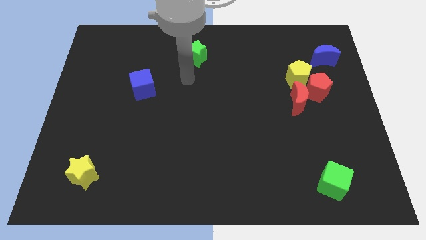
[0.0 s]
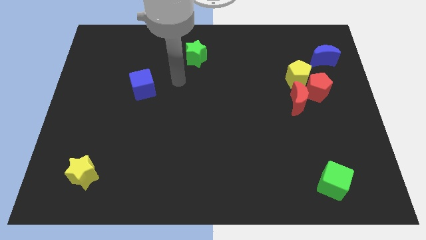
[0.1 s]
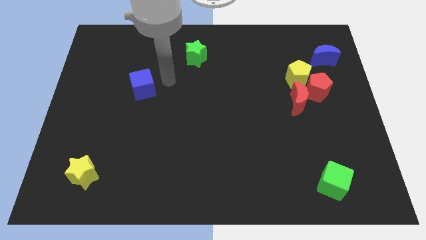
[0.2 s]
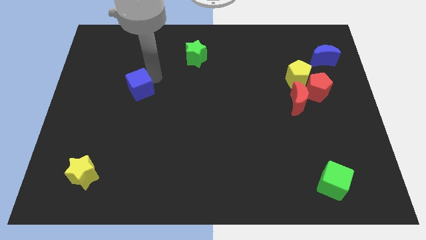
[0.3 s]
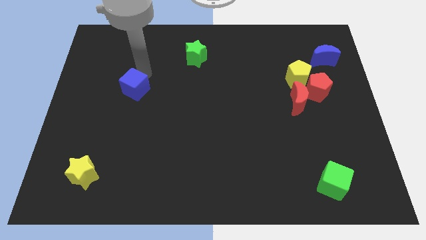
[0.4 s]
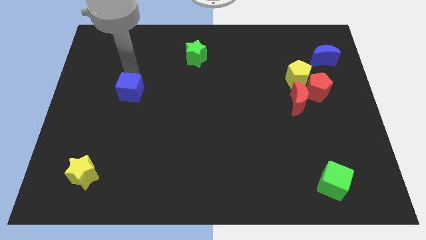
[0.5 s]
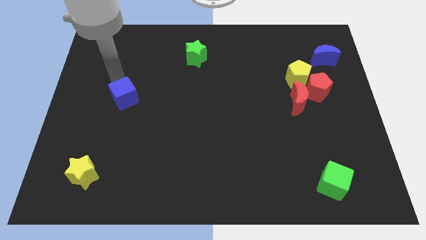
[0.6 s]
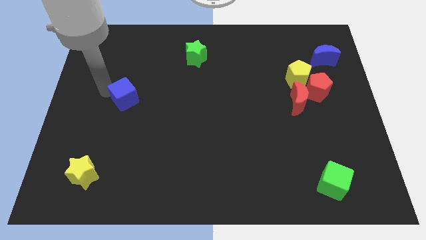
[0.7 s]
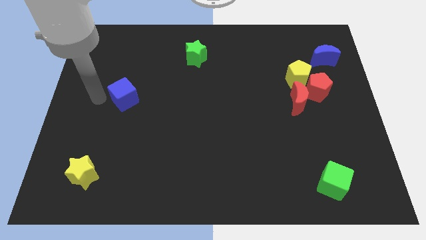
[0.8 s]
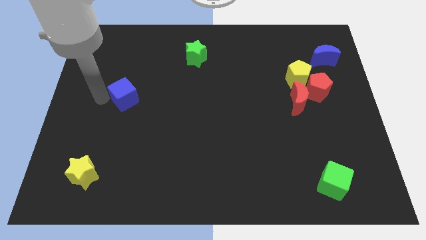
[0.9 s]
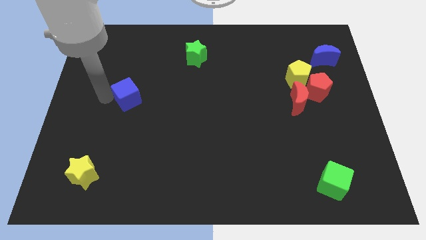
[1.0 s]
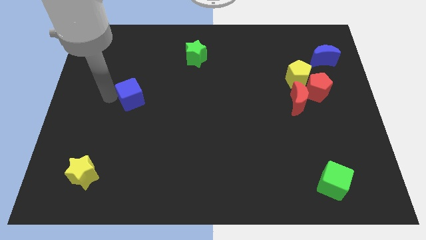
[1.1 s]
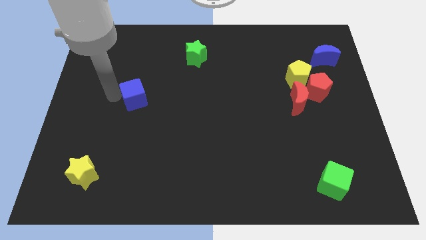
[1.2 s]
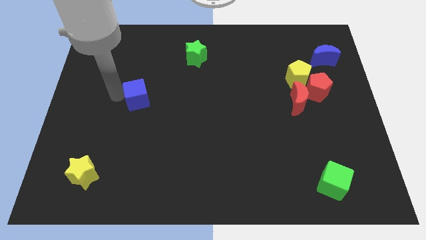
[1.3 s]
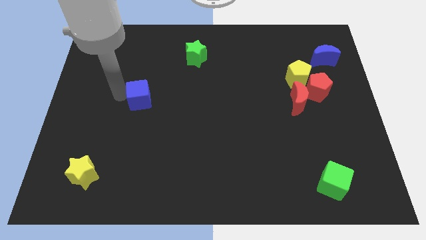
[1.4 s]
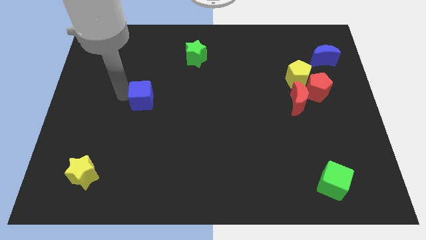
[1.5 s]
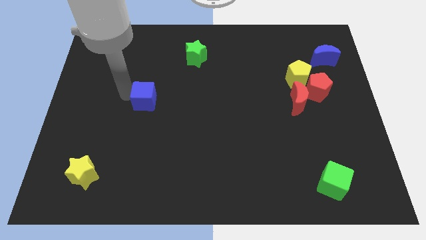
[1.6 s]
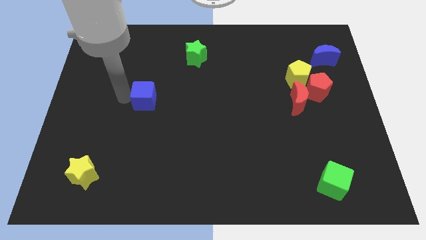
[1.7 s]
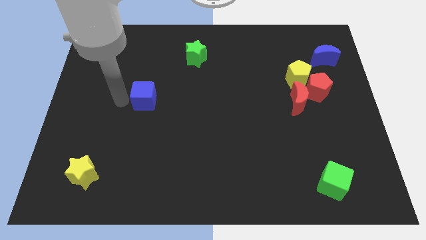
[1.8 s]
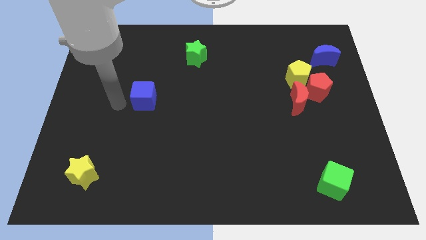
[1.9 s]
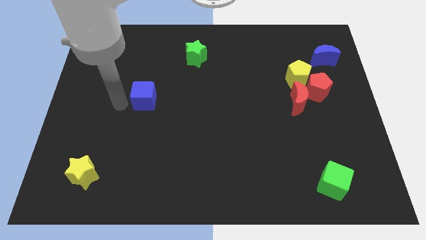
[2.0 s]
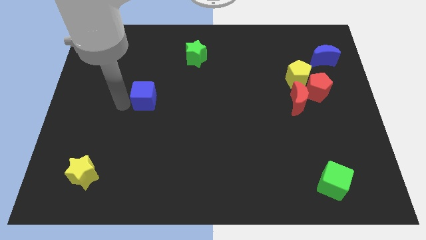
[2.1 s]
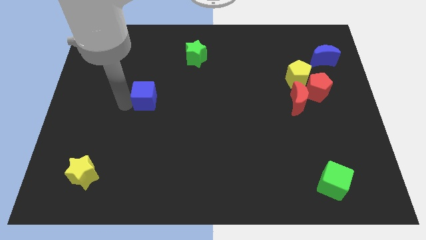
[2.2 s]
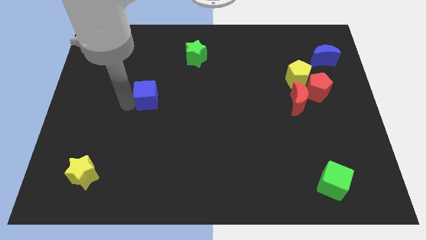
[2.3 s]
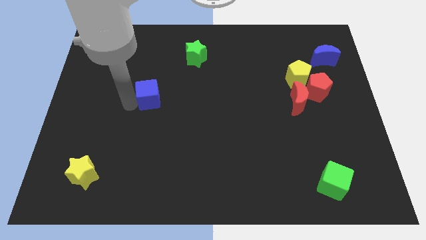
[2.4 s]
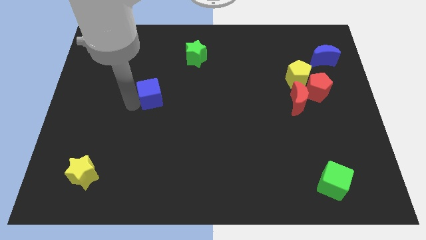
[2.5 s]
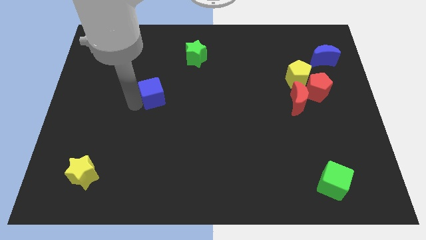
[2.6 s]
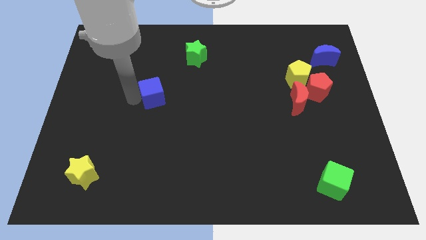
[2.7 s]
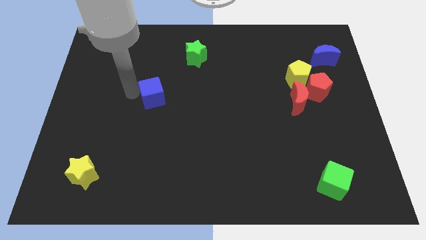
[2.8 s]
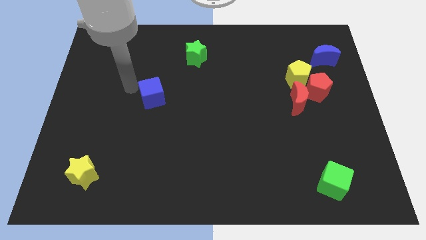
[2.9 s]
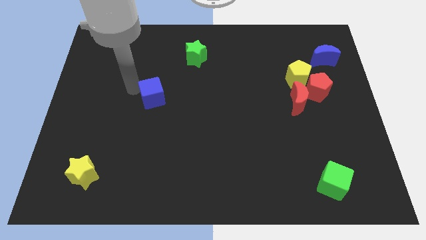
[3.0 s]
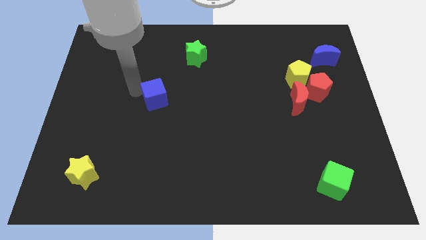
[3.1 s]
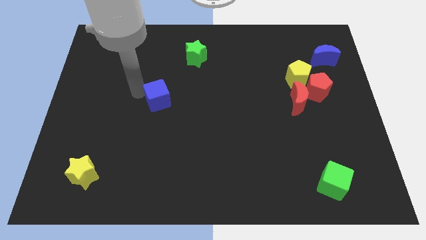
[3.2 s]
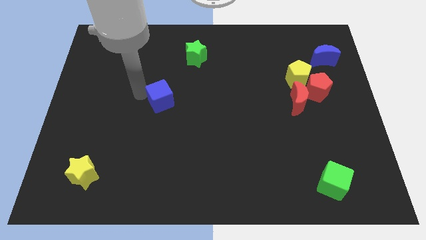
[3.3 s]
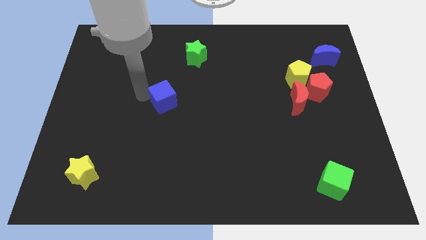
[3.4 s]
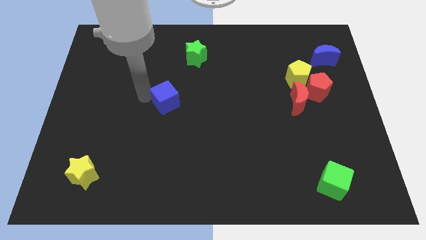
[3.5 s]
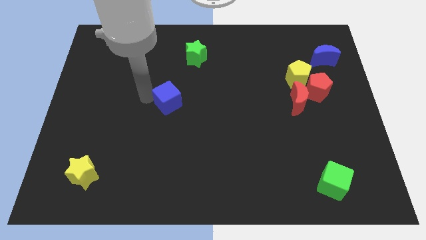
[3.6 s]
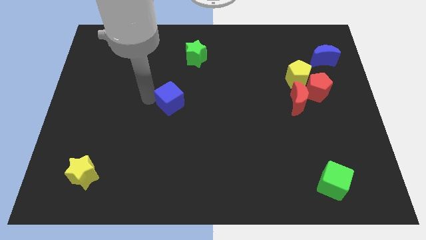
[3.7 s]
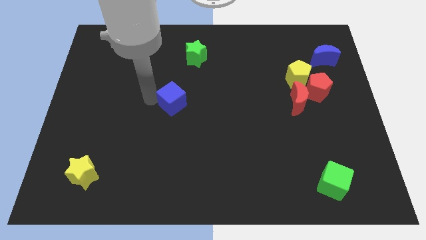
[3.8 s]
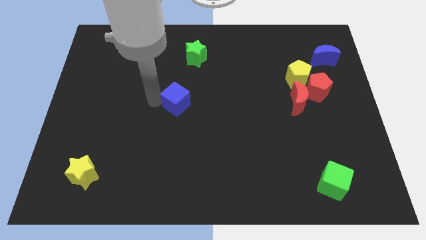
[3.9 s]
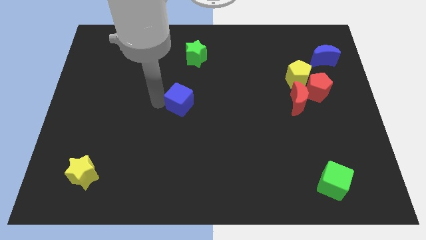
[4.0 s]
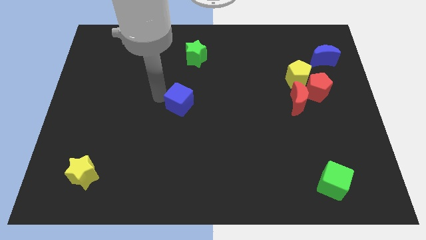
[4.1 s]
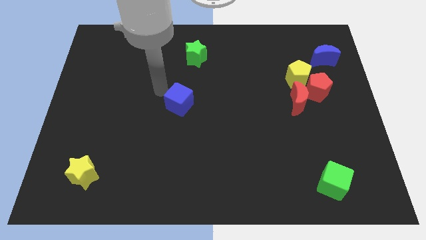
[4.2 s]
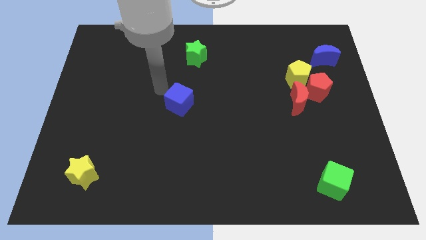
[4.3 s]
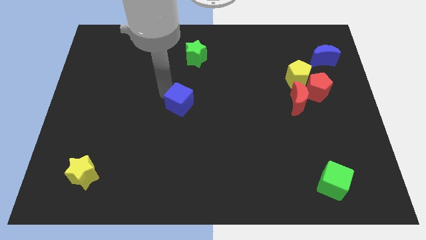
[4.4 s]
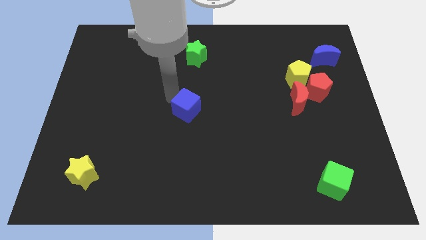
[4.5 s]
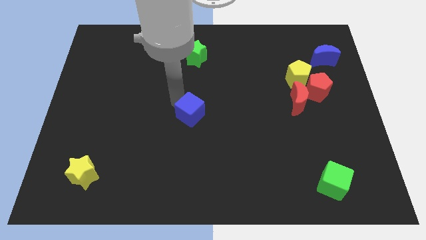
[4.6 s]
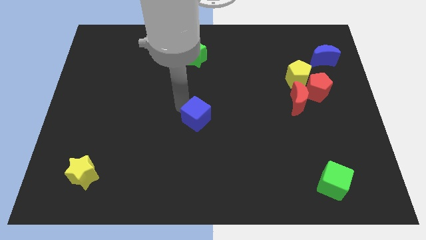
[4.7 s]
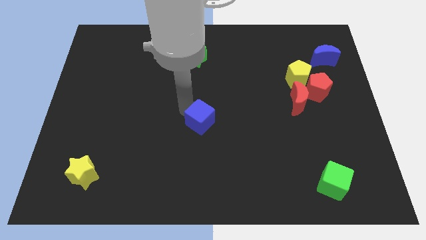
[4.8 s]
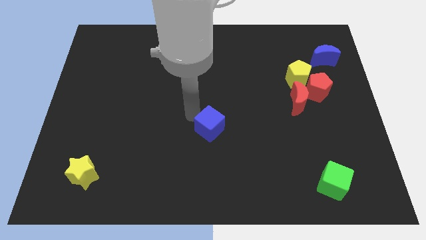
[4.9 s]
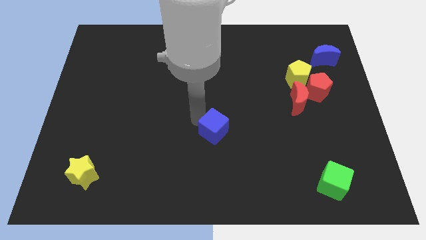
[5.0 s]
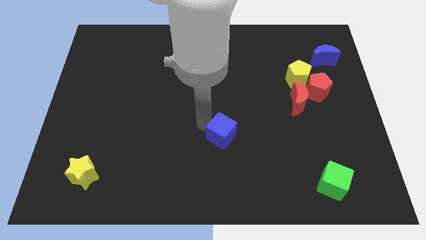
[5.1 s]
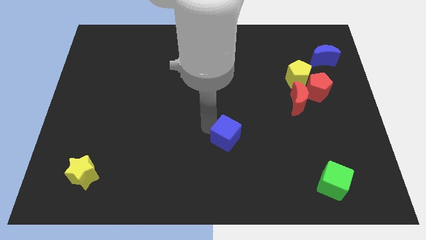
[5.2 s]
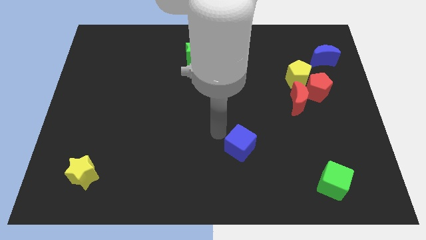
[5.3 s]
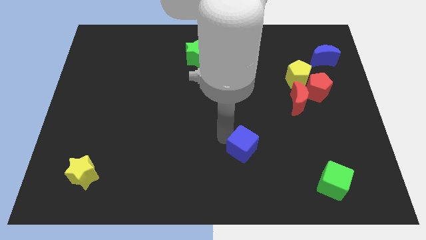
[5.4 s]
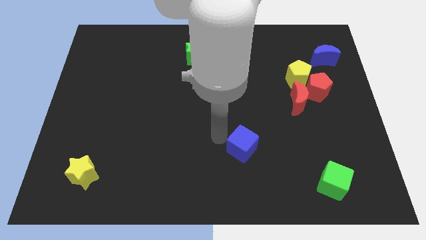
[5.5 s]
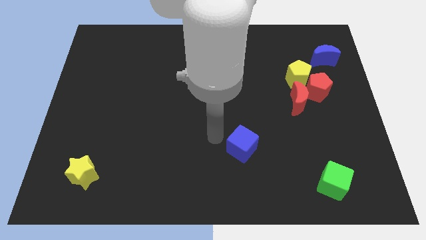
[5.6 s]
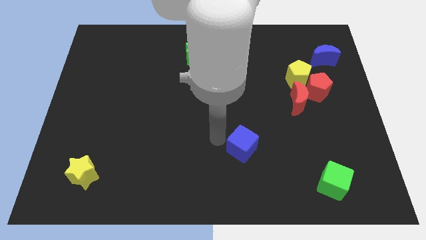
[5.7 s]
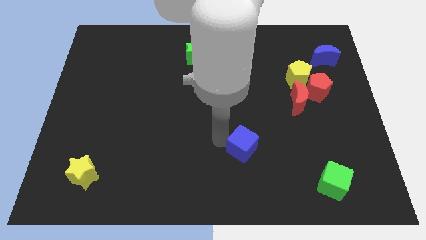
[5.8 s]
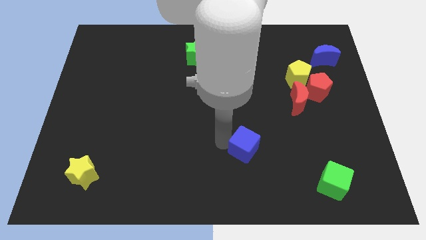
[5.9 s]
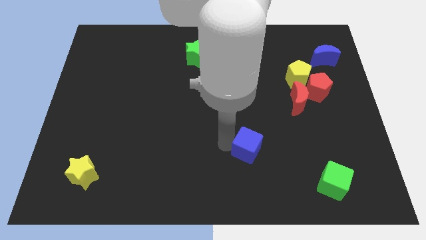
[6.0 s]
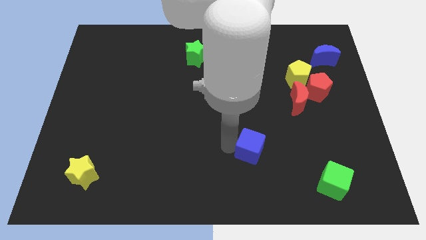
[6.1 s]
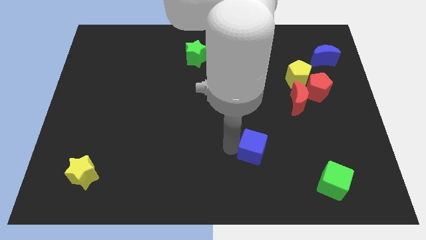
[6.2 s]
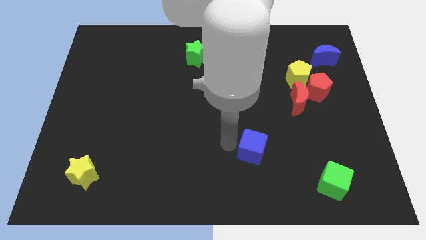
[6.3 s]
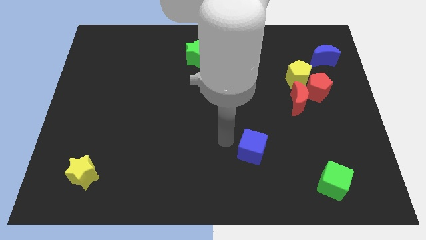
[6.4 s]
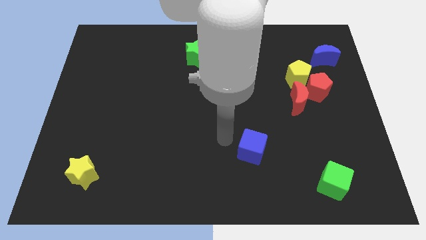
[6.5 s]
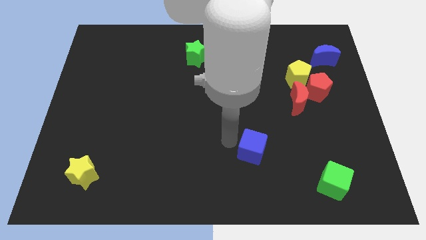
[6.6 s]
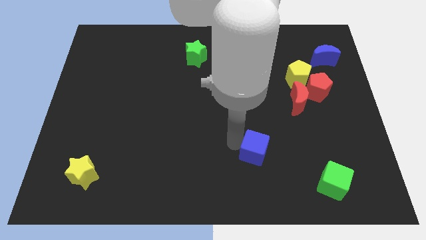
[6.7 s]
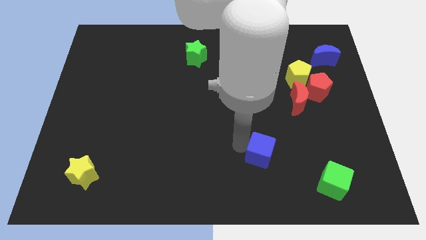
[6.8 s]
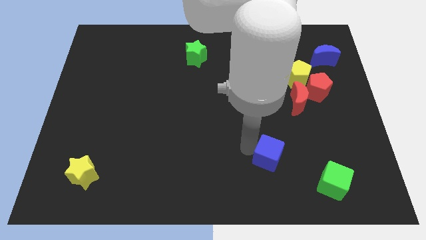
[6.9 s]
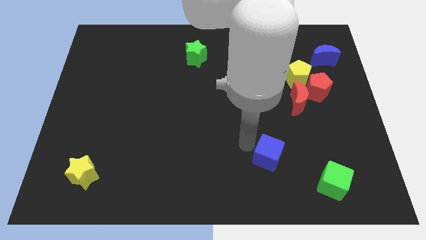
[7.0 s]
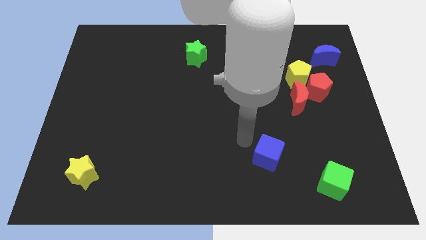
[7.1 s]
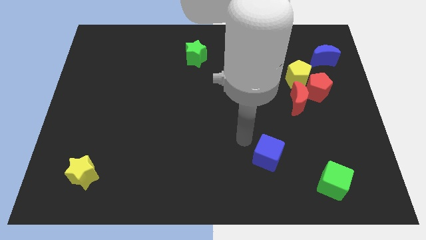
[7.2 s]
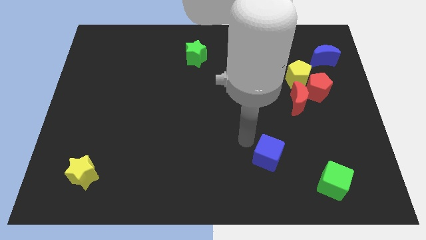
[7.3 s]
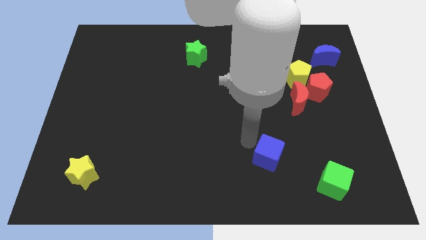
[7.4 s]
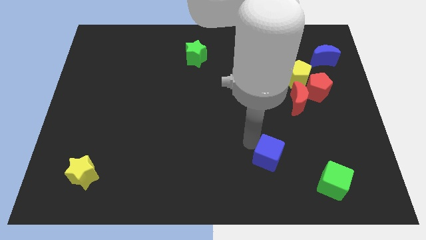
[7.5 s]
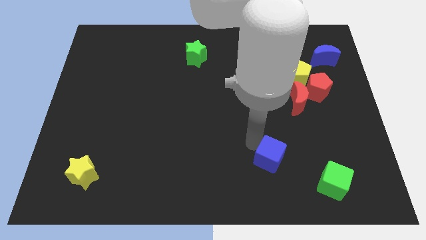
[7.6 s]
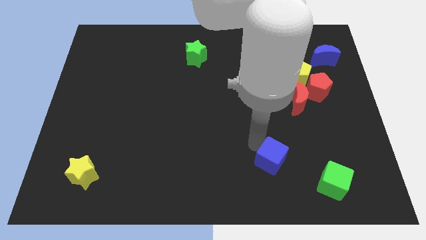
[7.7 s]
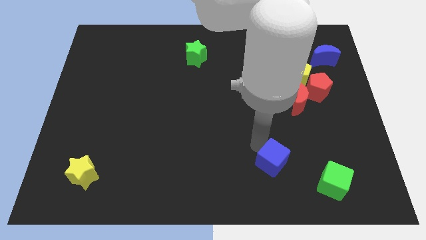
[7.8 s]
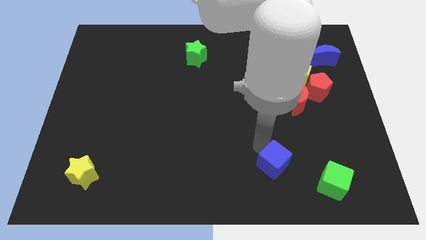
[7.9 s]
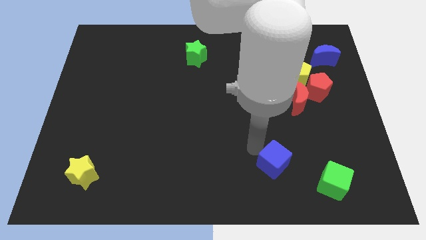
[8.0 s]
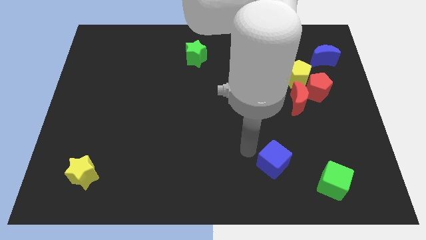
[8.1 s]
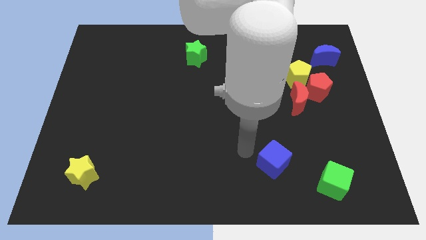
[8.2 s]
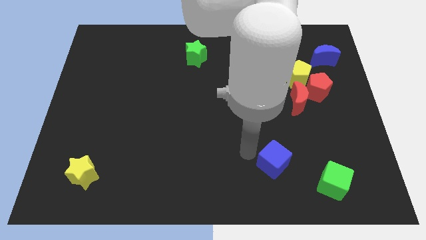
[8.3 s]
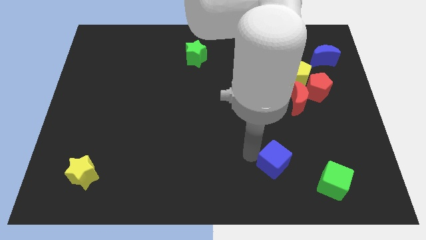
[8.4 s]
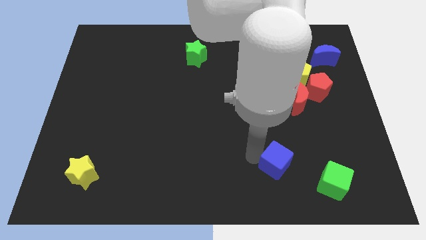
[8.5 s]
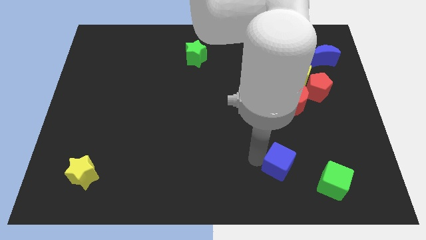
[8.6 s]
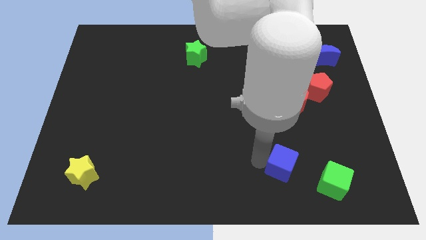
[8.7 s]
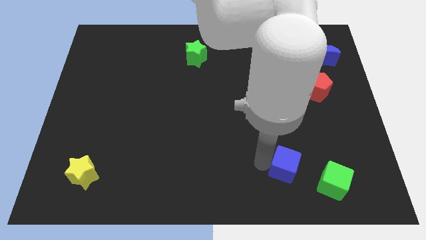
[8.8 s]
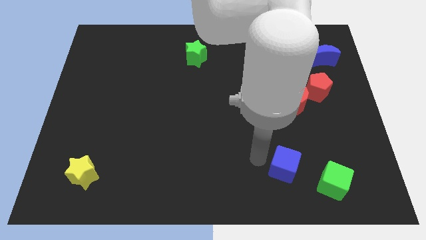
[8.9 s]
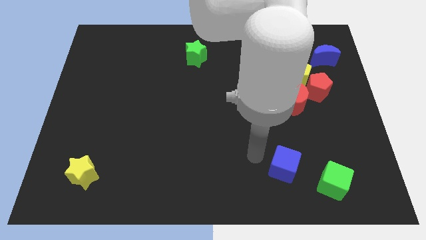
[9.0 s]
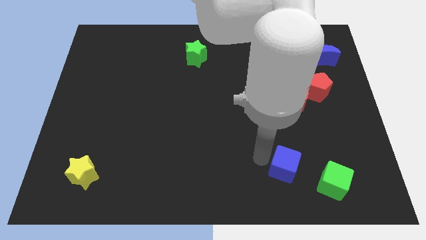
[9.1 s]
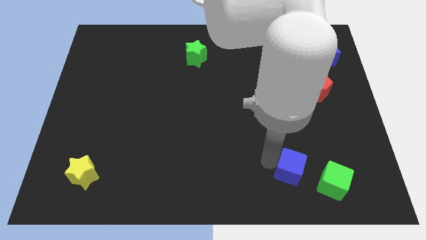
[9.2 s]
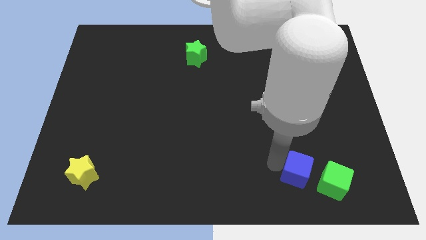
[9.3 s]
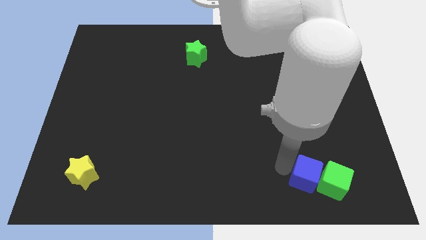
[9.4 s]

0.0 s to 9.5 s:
push the blue cube towards the green cube
